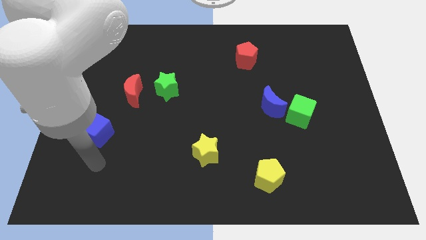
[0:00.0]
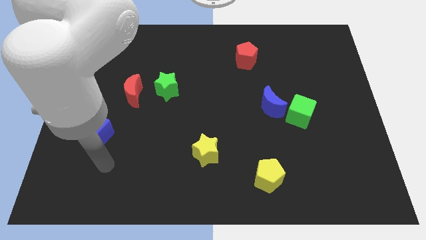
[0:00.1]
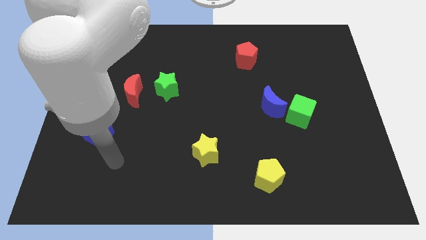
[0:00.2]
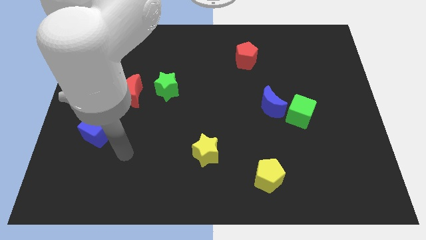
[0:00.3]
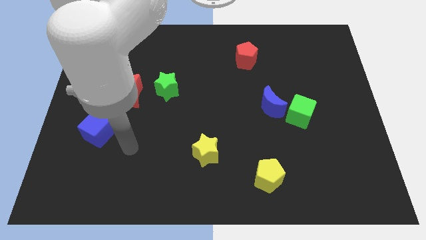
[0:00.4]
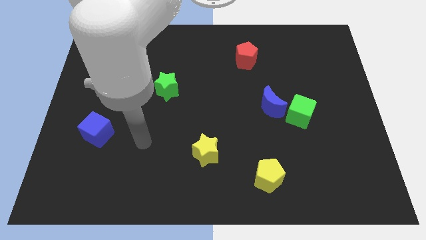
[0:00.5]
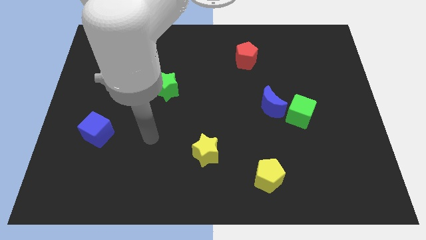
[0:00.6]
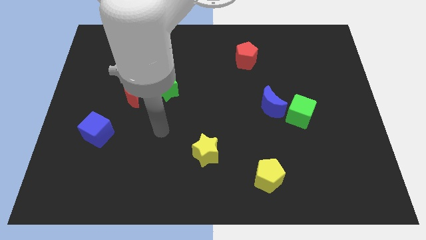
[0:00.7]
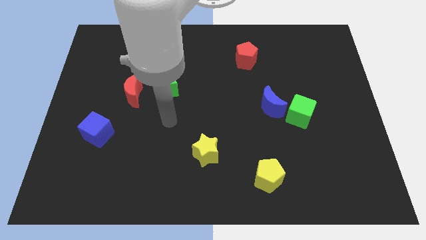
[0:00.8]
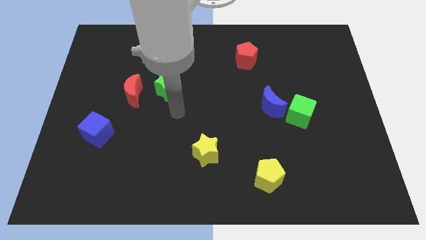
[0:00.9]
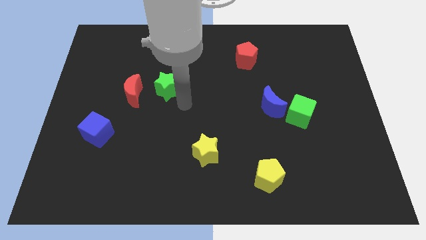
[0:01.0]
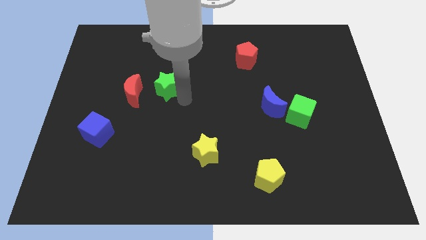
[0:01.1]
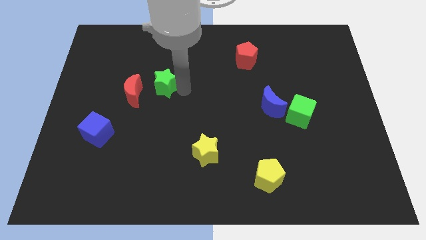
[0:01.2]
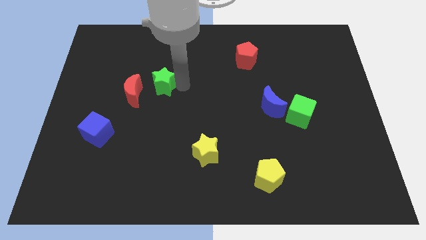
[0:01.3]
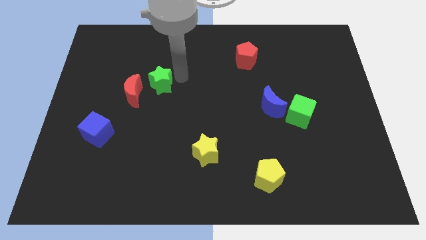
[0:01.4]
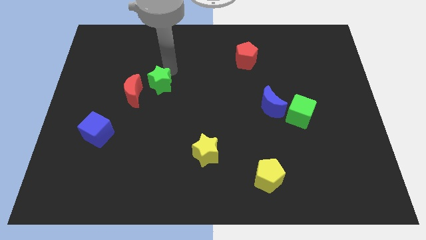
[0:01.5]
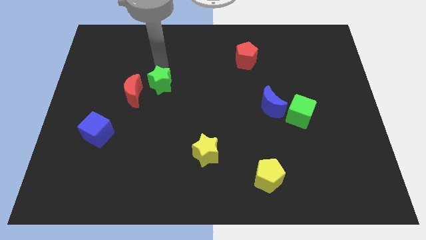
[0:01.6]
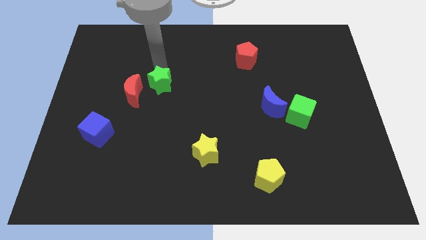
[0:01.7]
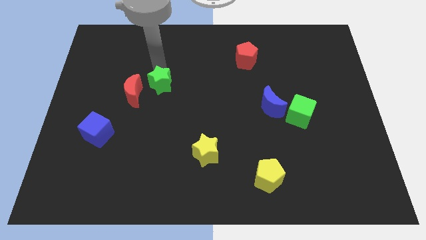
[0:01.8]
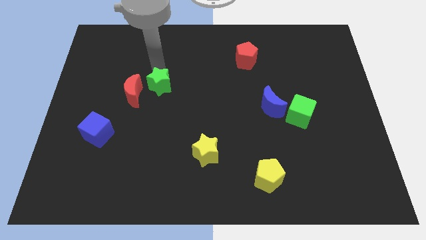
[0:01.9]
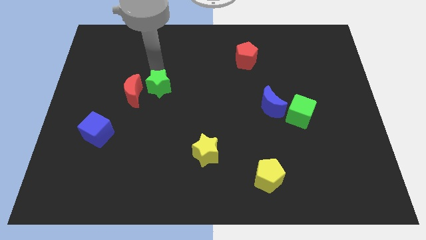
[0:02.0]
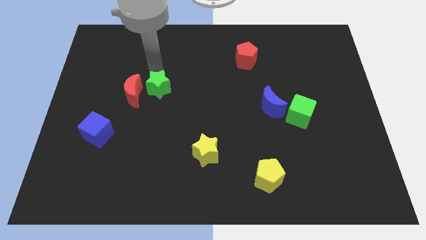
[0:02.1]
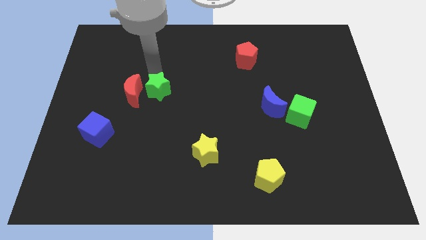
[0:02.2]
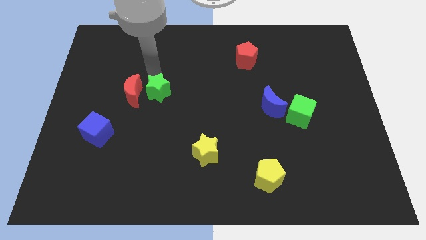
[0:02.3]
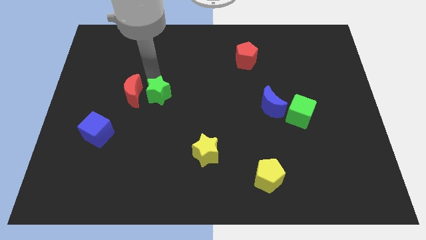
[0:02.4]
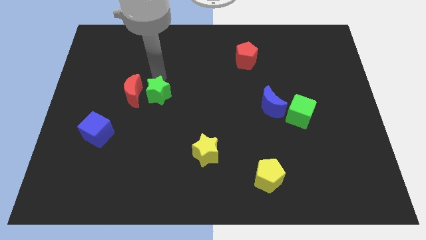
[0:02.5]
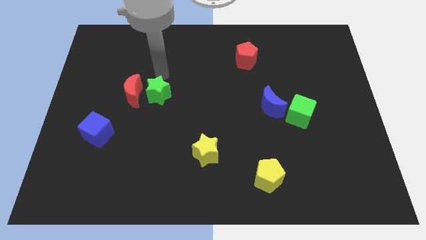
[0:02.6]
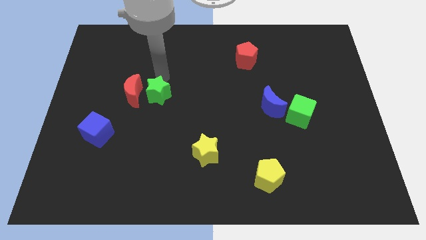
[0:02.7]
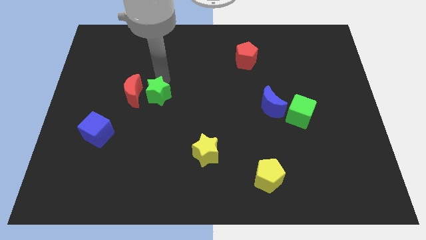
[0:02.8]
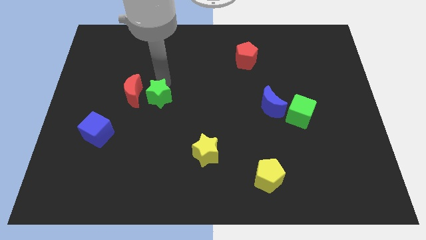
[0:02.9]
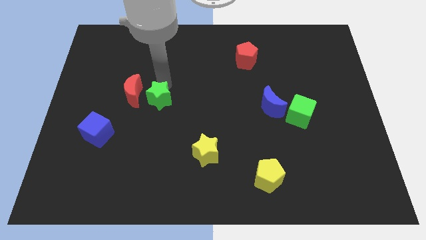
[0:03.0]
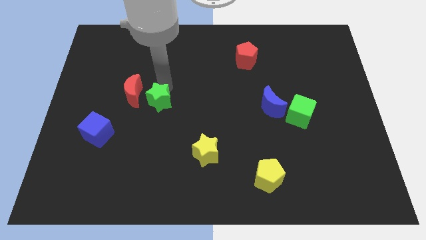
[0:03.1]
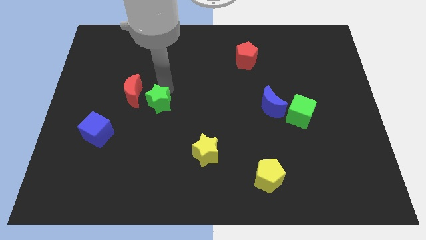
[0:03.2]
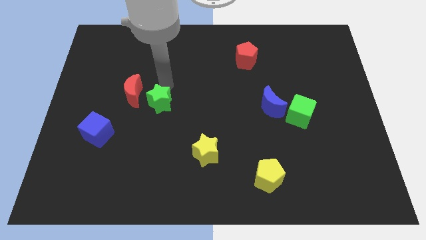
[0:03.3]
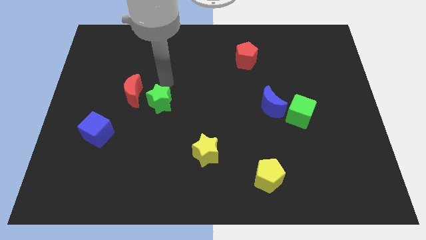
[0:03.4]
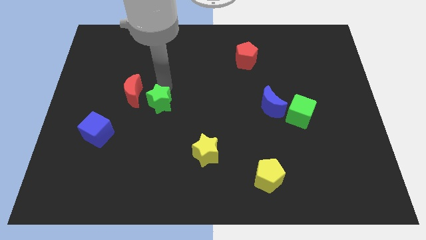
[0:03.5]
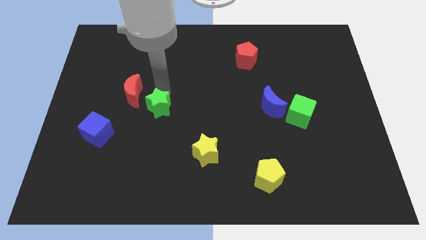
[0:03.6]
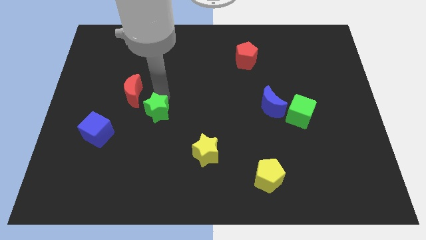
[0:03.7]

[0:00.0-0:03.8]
move the green star a bit down

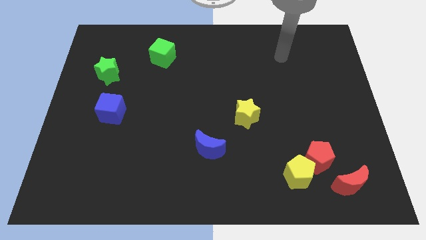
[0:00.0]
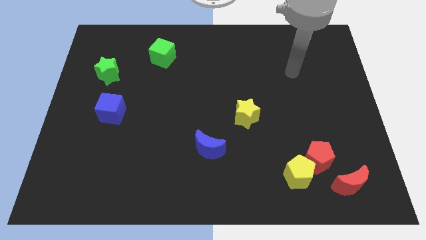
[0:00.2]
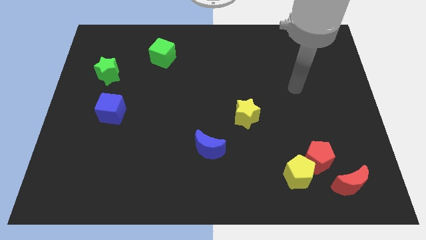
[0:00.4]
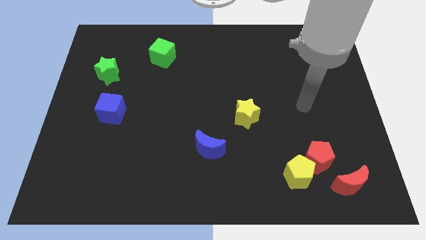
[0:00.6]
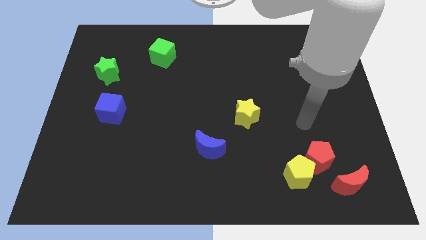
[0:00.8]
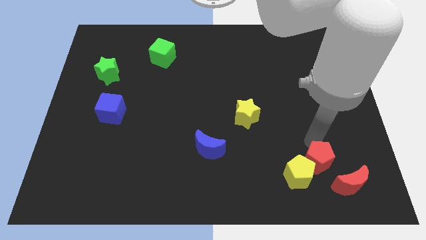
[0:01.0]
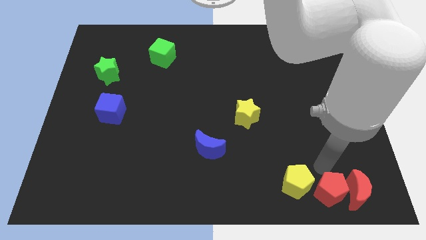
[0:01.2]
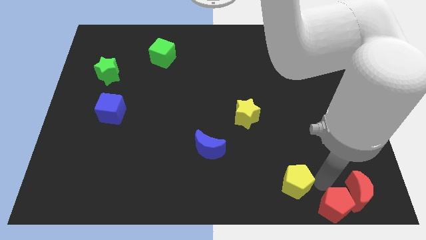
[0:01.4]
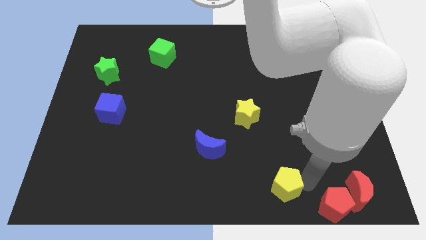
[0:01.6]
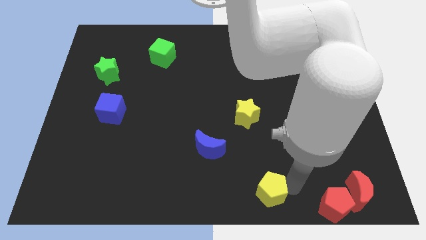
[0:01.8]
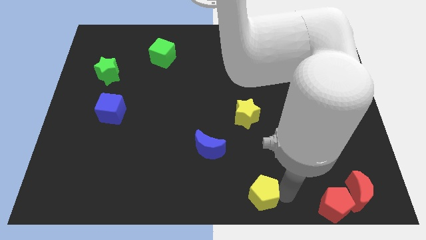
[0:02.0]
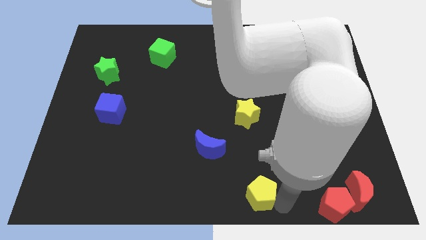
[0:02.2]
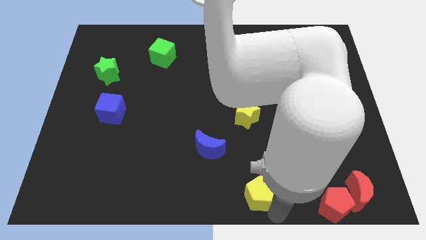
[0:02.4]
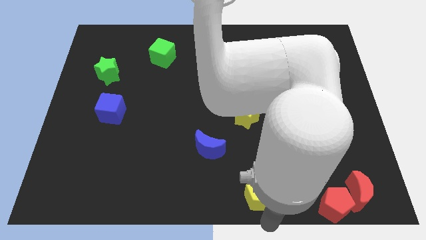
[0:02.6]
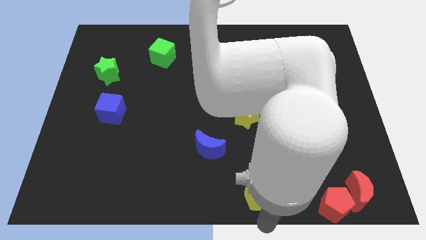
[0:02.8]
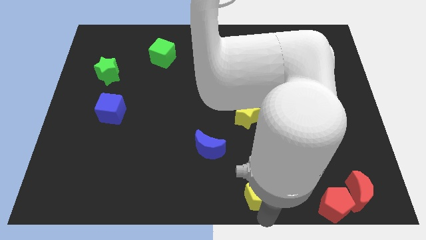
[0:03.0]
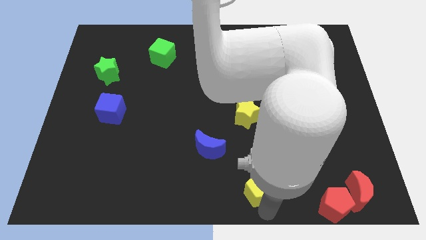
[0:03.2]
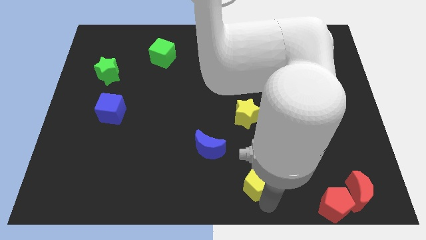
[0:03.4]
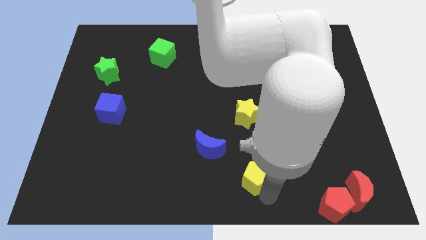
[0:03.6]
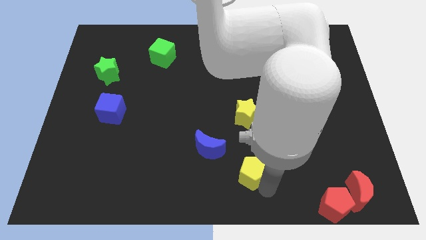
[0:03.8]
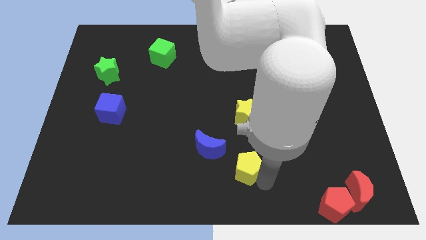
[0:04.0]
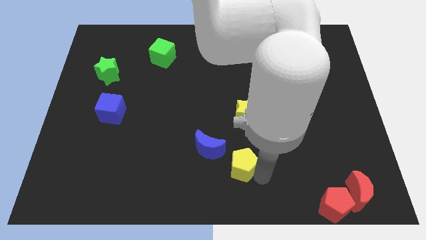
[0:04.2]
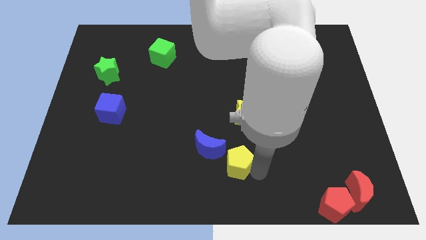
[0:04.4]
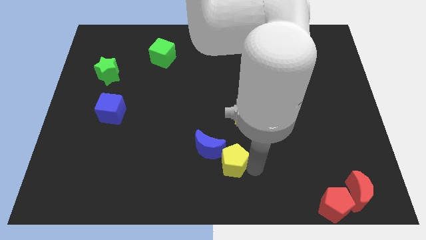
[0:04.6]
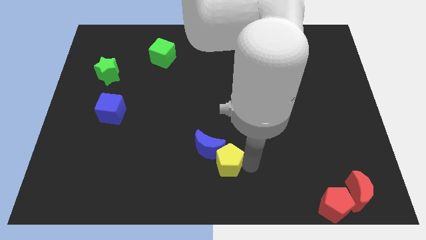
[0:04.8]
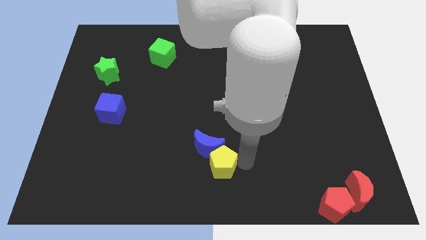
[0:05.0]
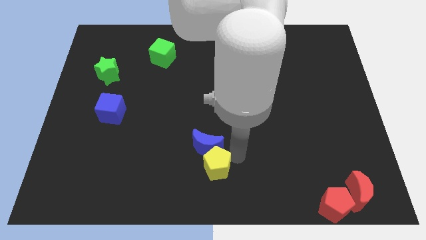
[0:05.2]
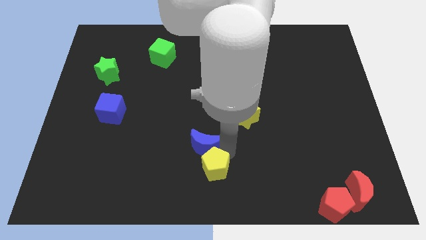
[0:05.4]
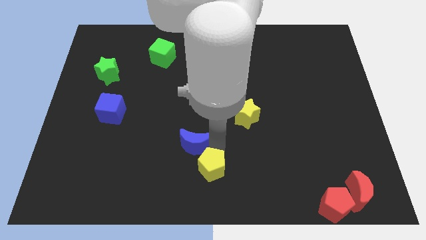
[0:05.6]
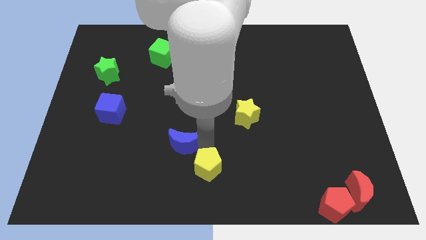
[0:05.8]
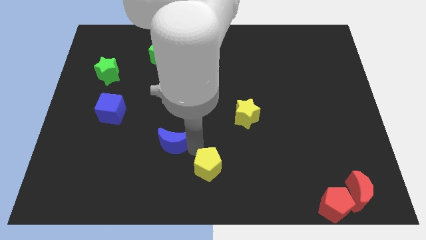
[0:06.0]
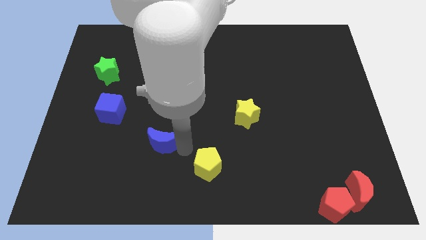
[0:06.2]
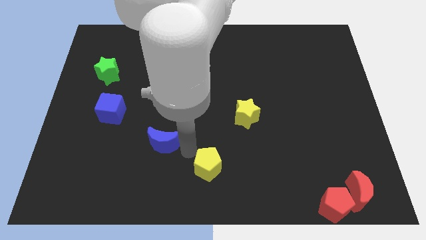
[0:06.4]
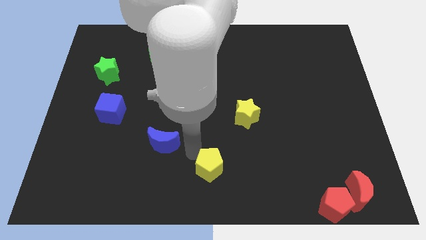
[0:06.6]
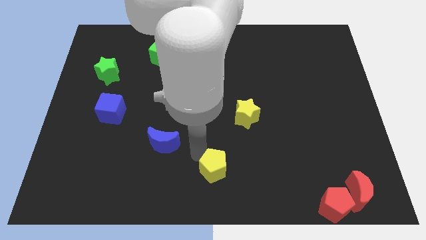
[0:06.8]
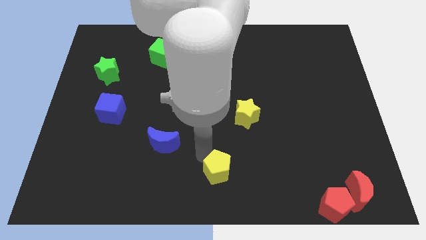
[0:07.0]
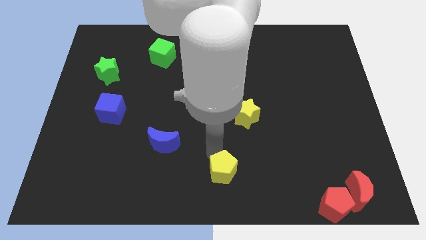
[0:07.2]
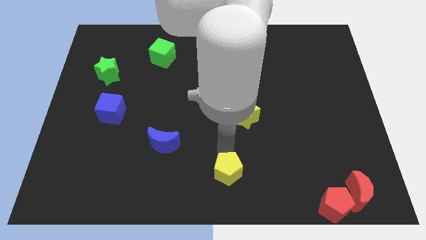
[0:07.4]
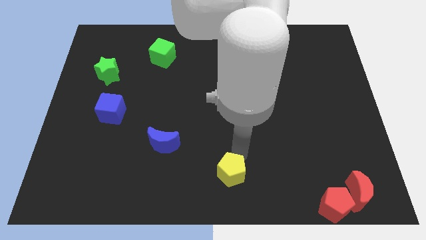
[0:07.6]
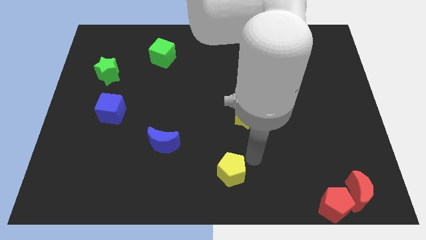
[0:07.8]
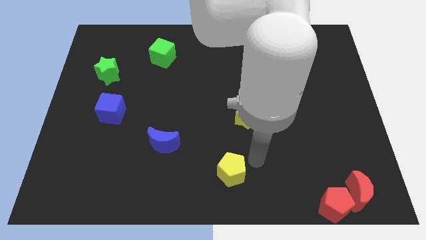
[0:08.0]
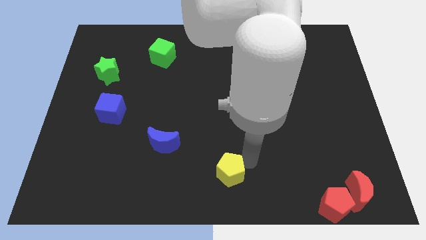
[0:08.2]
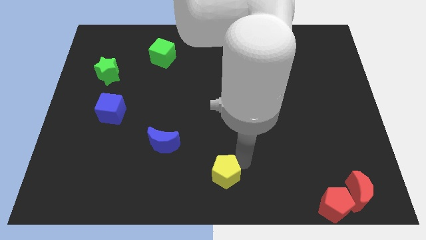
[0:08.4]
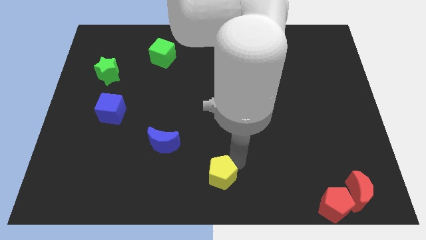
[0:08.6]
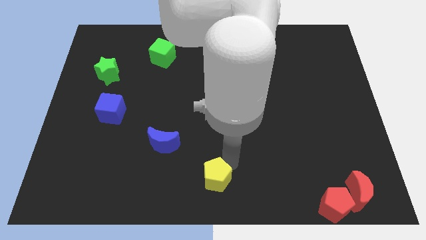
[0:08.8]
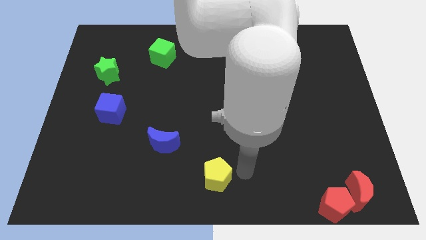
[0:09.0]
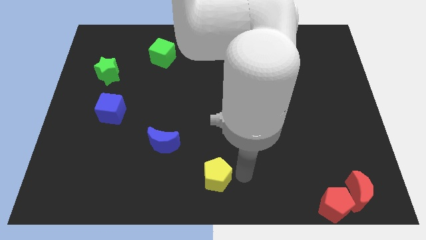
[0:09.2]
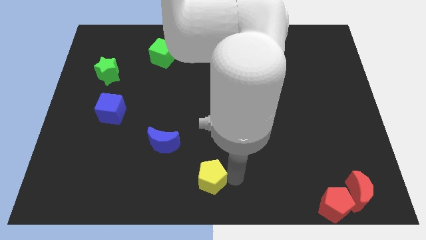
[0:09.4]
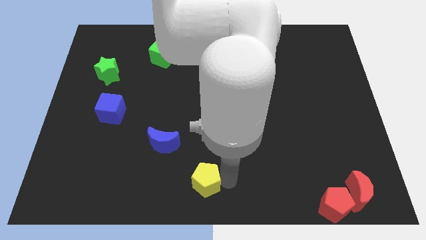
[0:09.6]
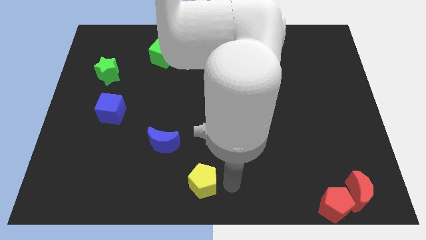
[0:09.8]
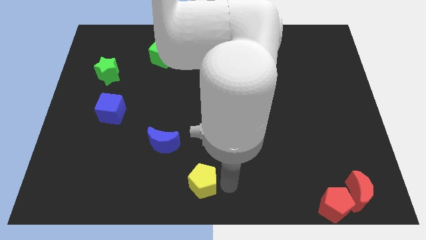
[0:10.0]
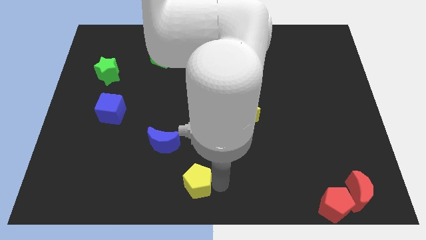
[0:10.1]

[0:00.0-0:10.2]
move the yellow pentagon left
